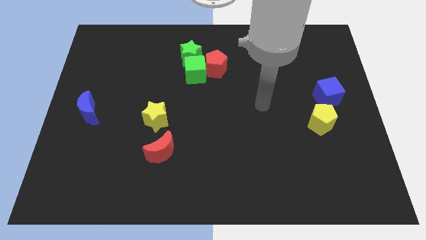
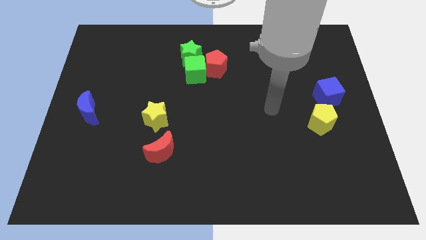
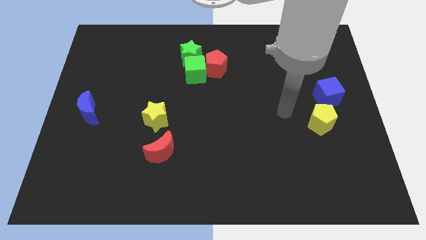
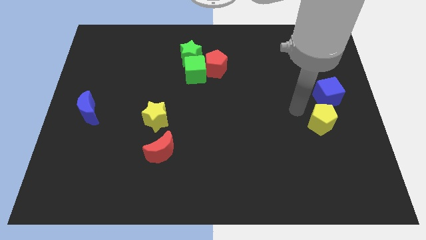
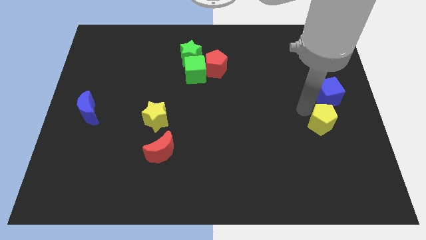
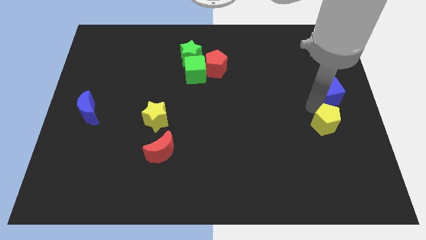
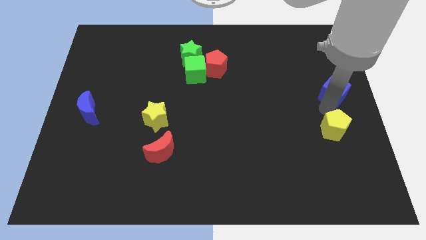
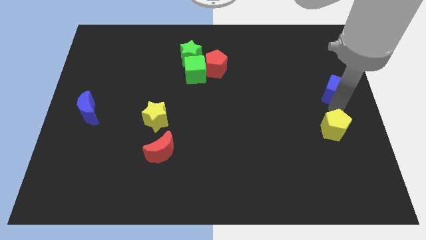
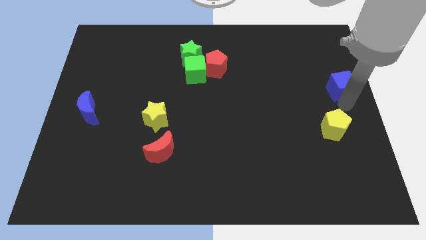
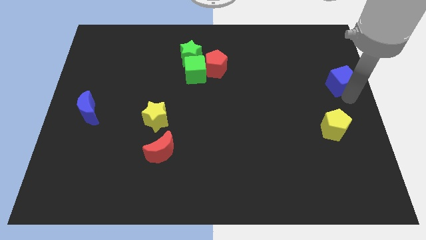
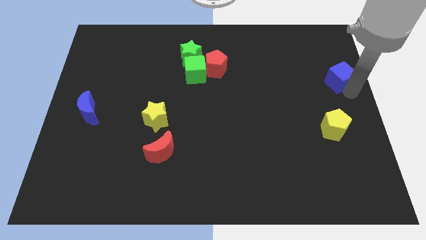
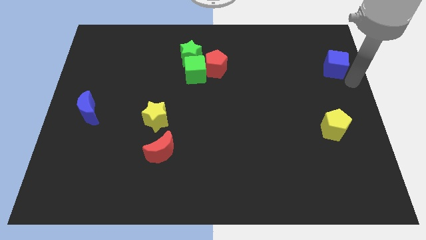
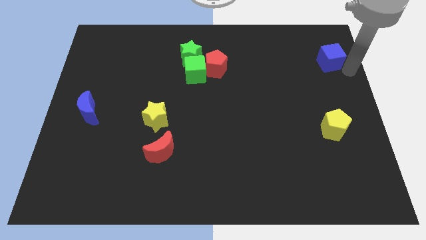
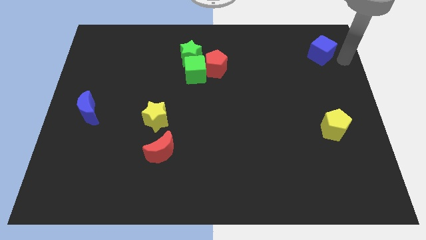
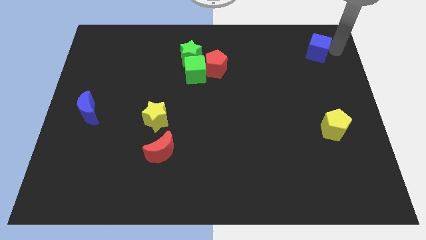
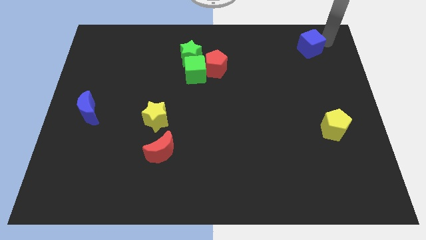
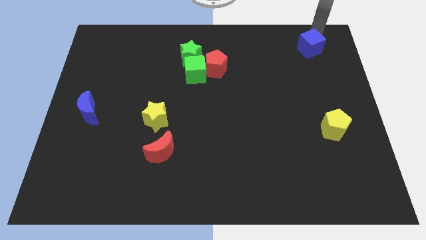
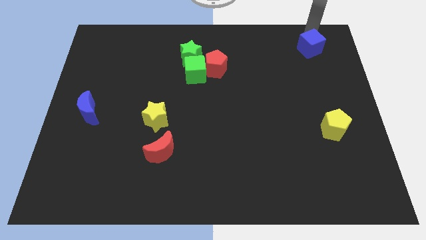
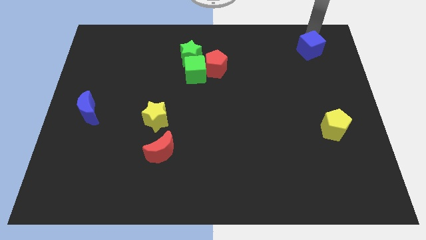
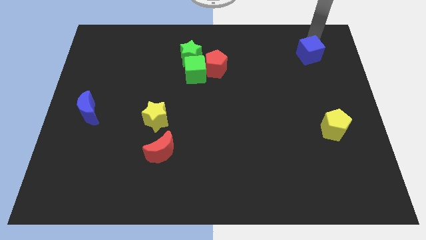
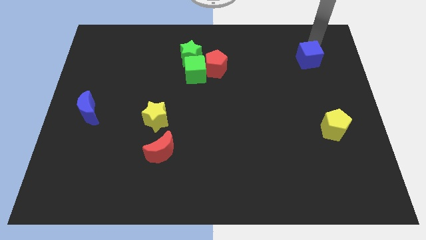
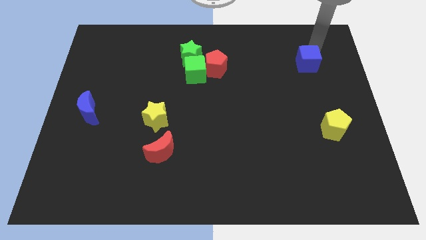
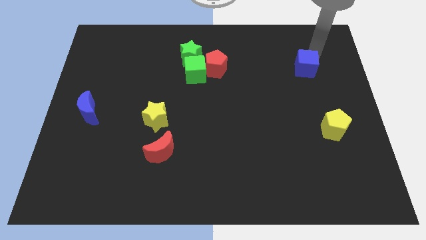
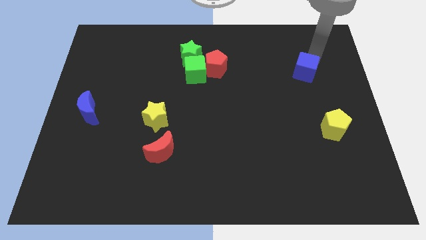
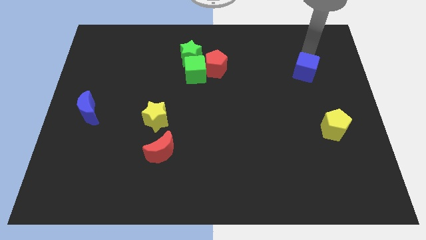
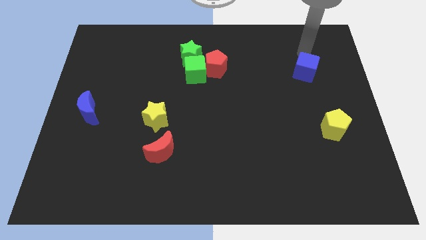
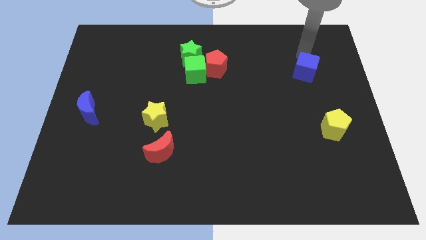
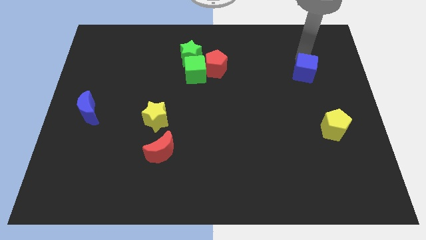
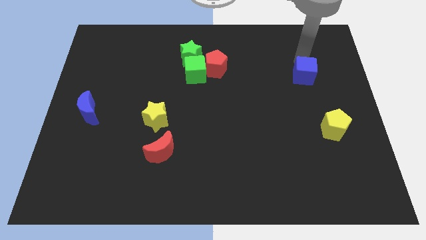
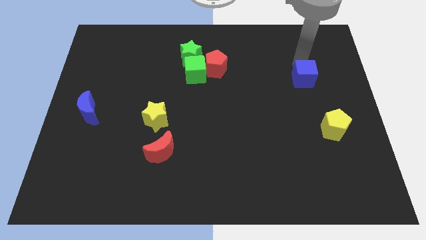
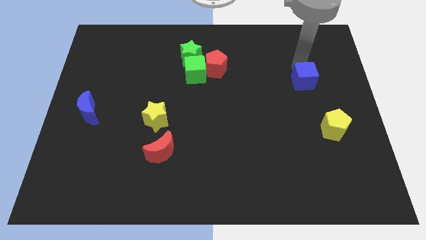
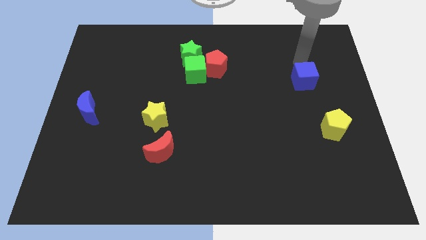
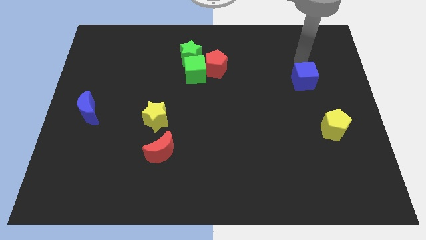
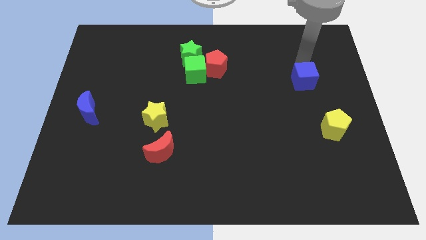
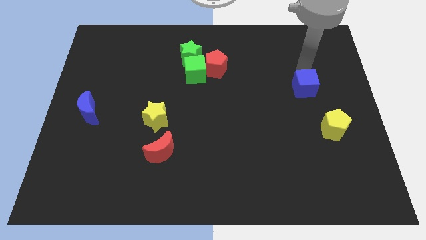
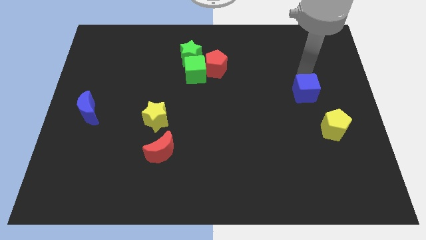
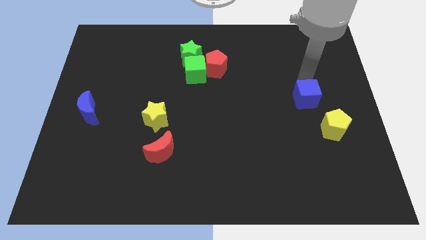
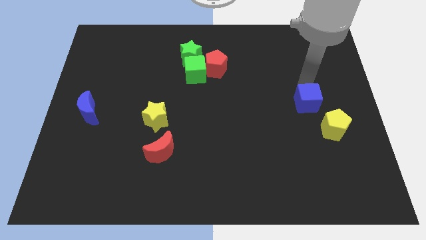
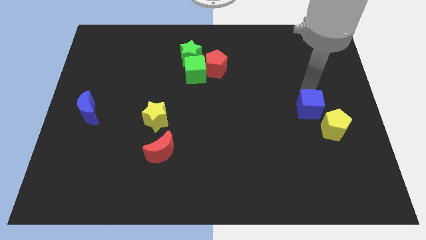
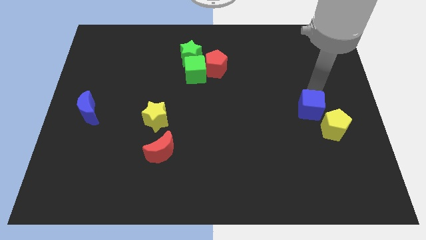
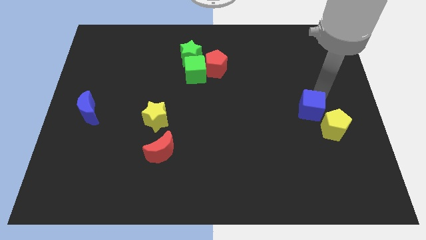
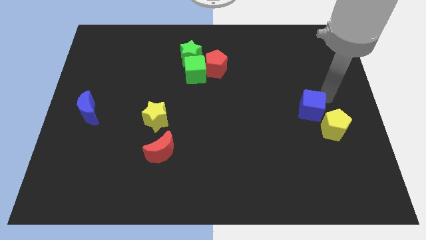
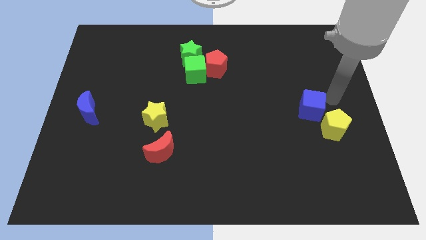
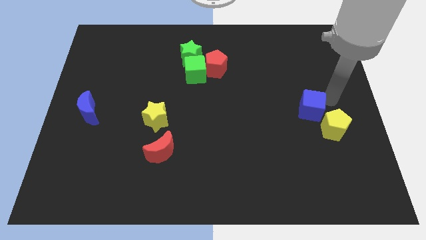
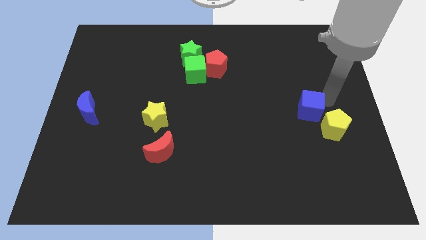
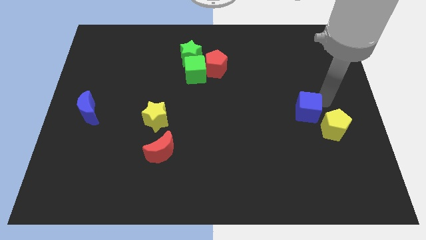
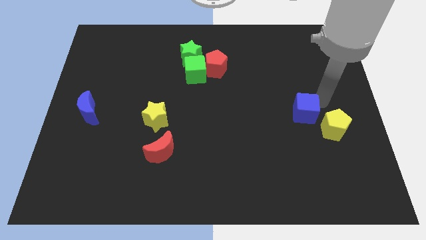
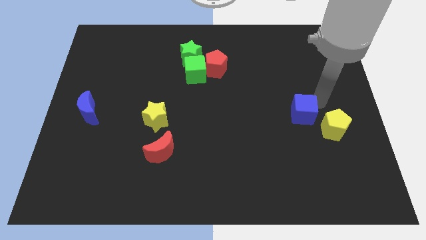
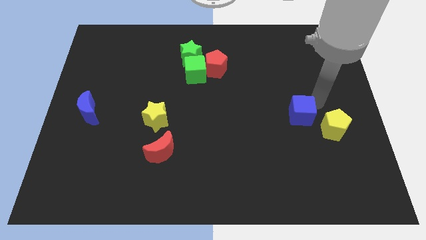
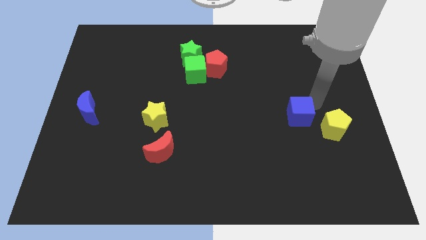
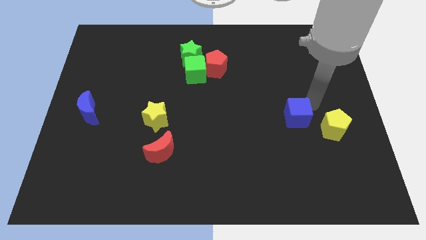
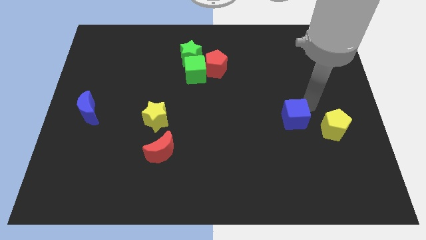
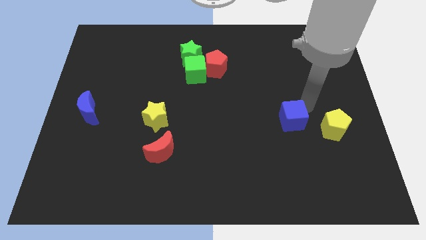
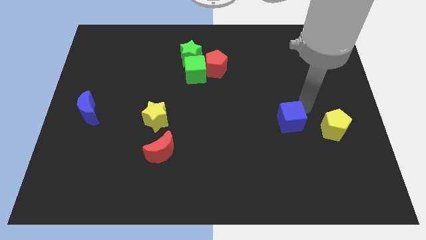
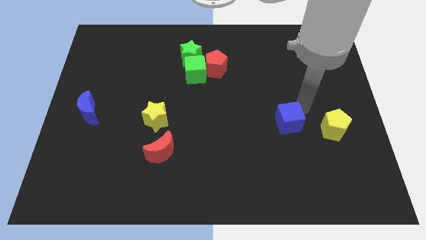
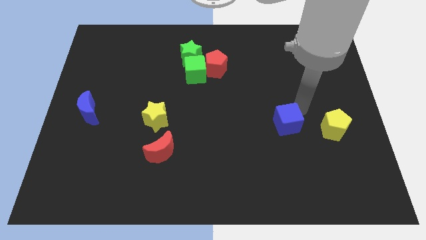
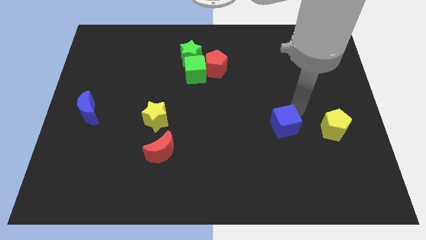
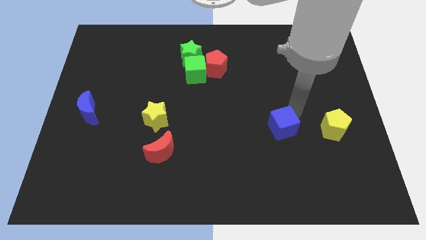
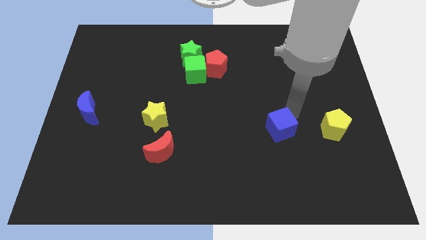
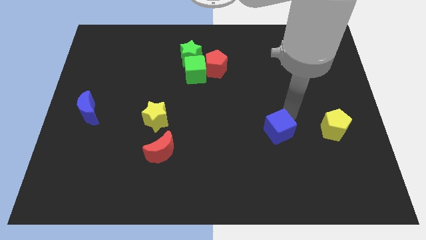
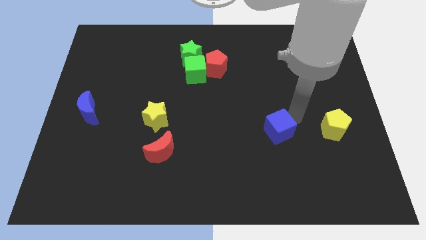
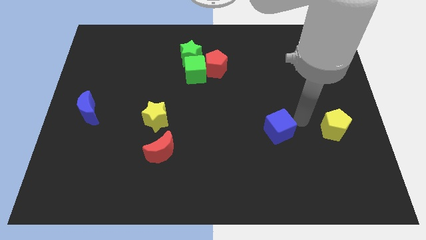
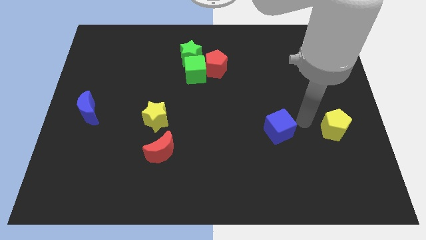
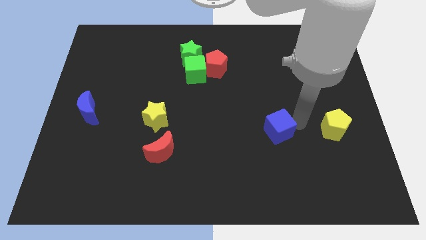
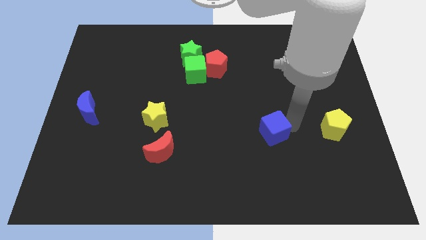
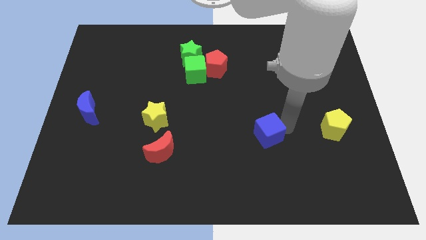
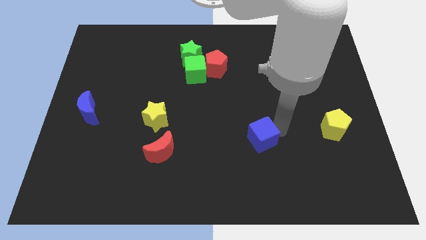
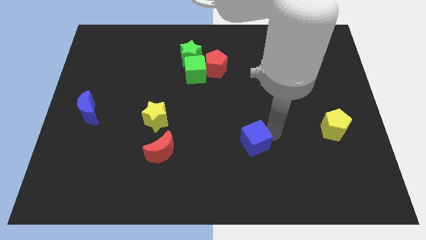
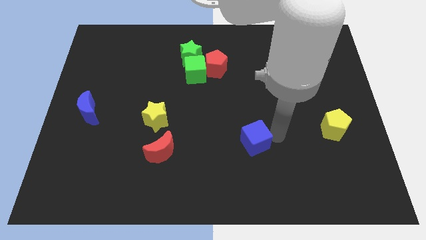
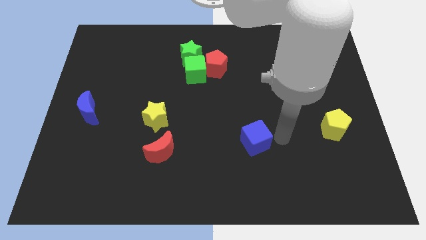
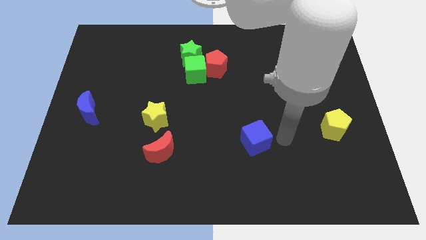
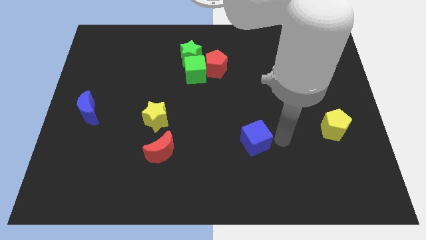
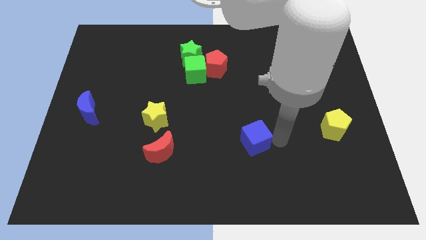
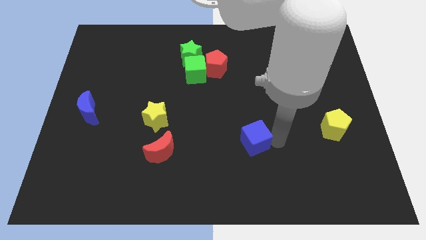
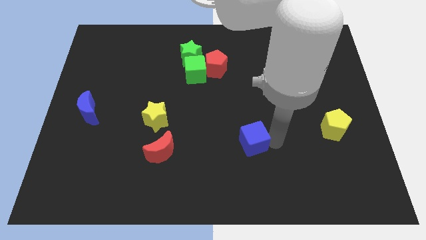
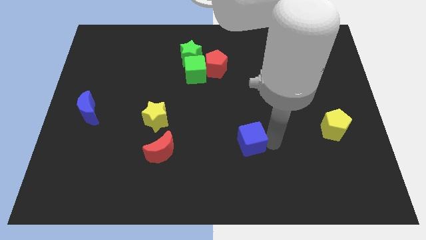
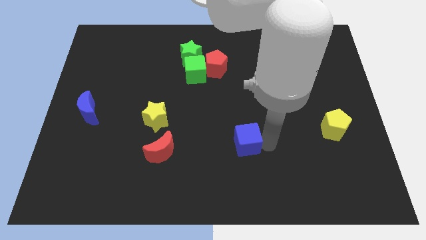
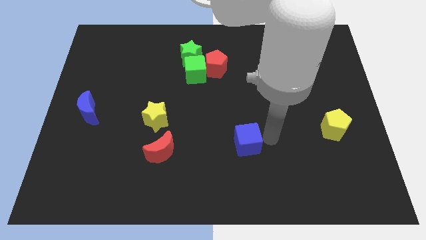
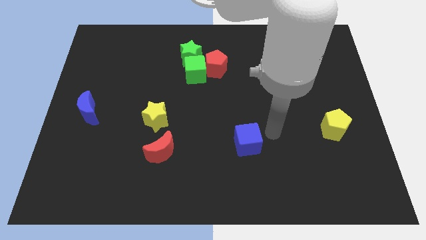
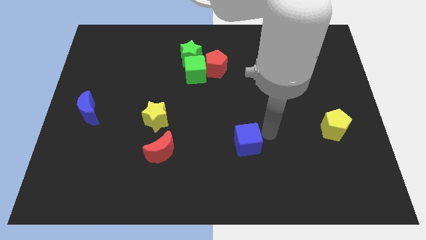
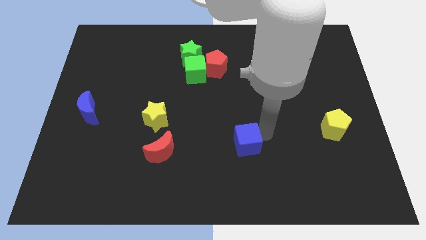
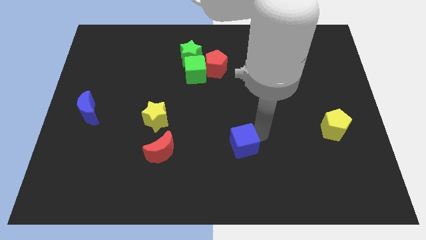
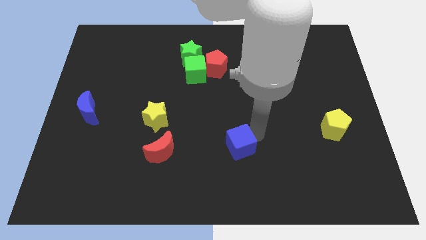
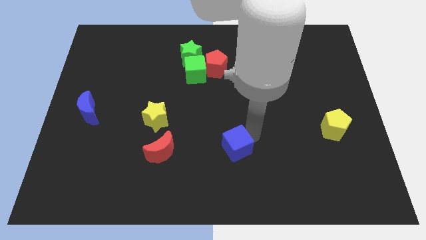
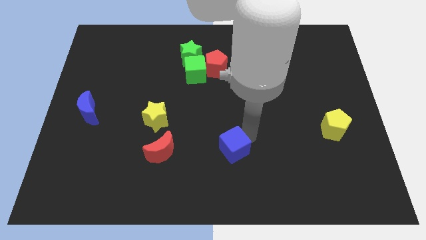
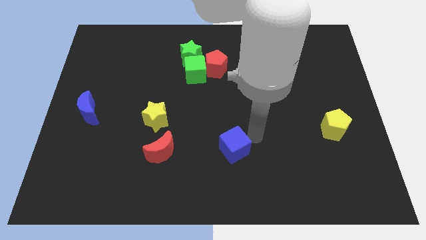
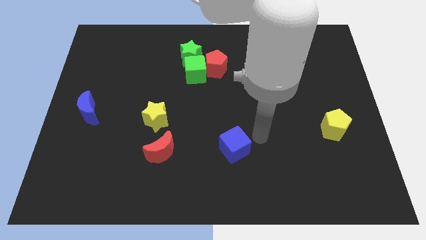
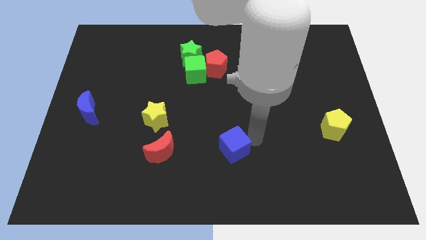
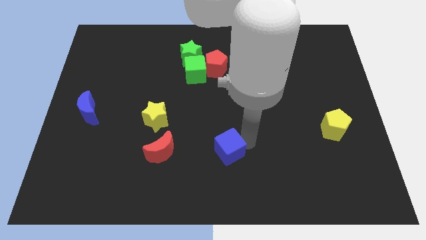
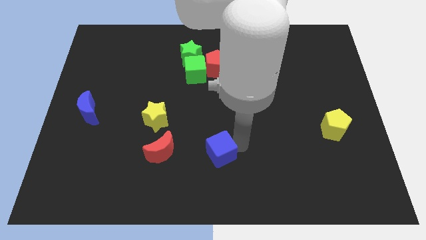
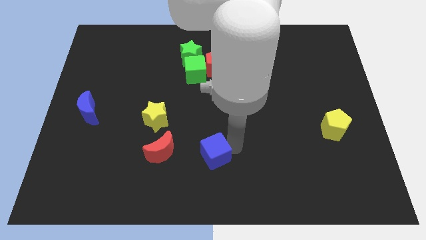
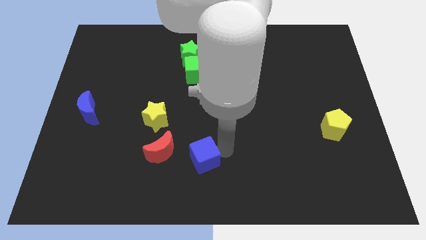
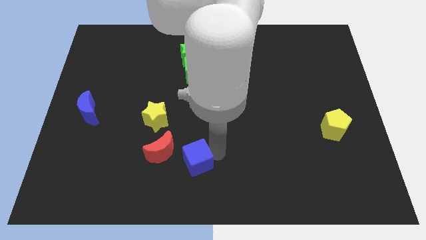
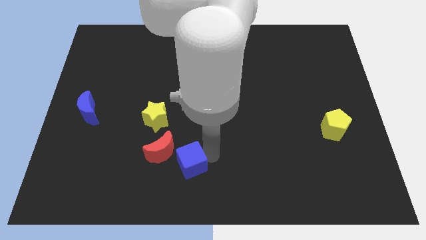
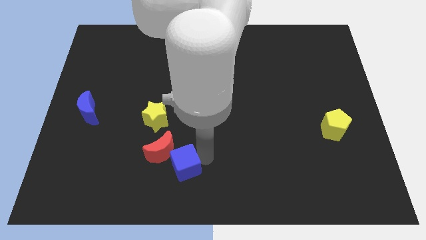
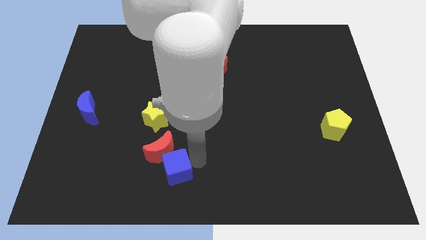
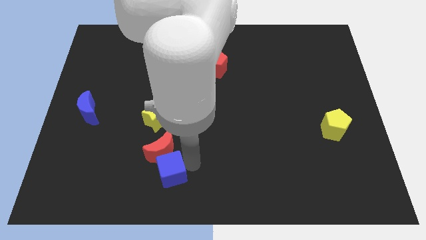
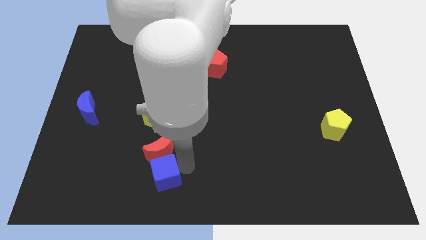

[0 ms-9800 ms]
slide the blue cube to the bottom left side of the red moon
